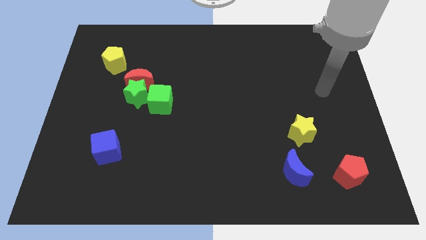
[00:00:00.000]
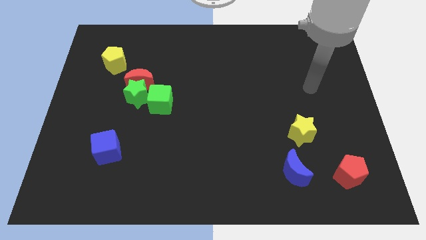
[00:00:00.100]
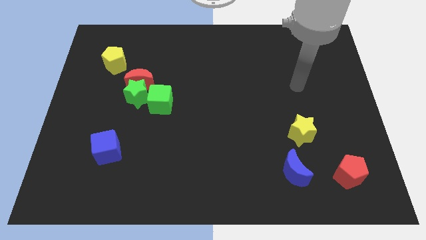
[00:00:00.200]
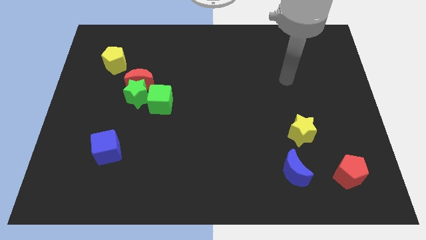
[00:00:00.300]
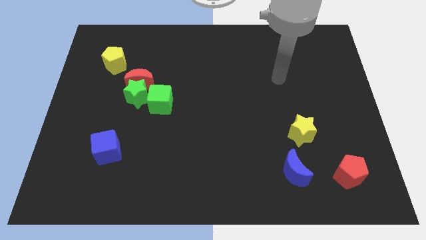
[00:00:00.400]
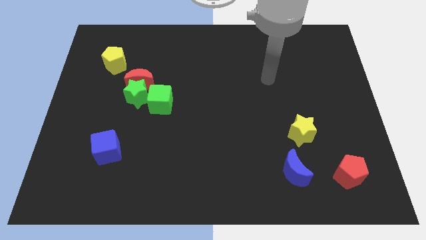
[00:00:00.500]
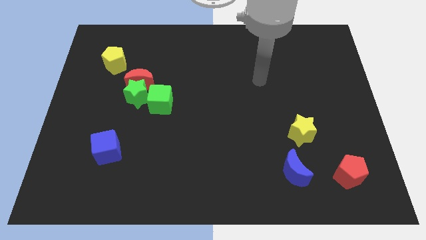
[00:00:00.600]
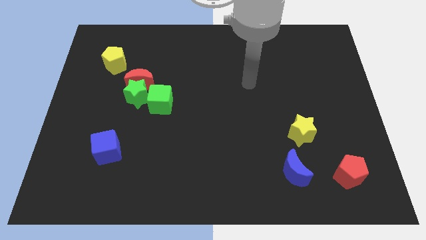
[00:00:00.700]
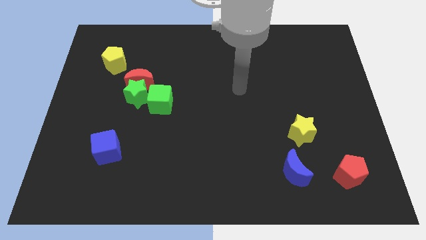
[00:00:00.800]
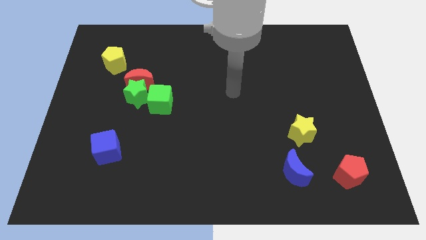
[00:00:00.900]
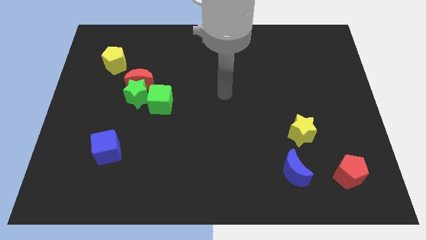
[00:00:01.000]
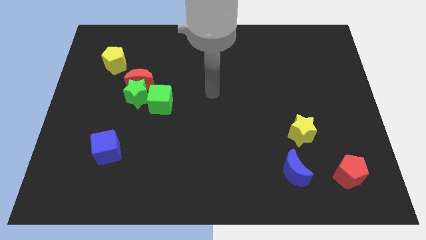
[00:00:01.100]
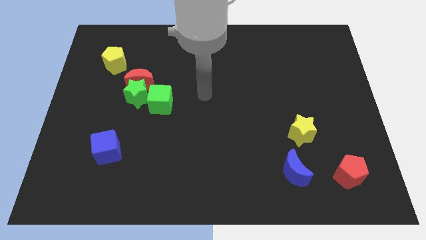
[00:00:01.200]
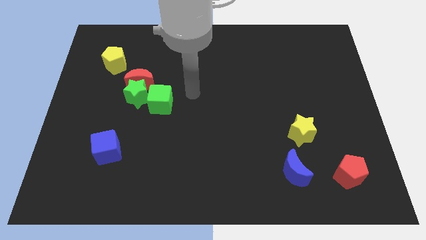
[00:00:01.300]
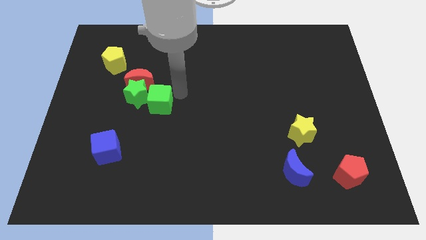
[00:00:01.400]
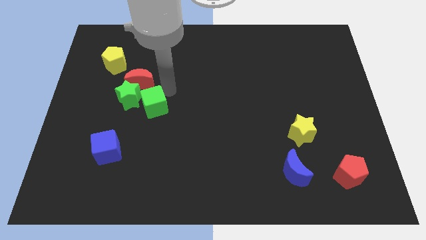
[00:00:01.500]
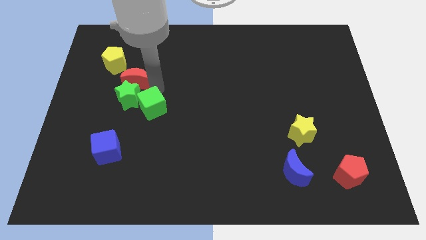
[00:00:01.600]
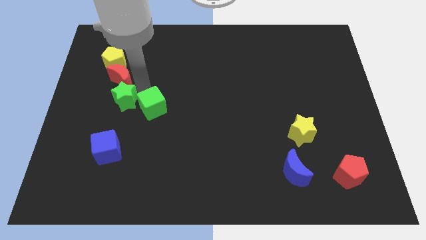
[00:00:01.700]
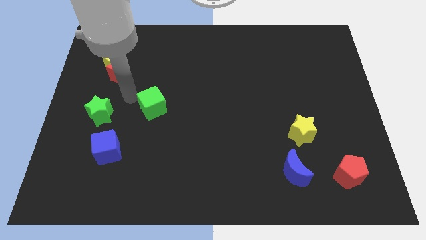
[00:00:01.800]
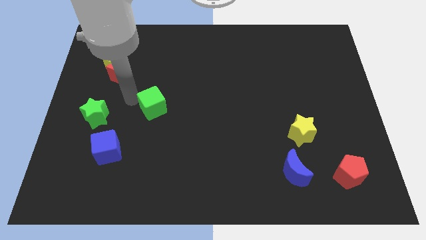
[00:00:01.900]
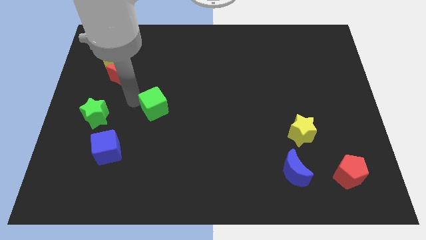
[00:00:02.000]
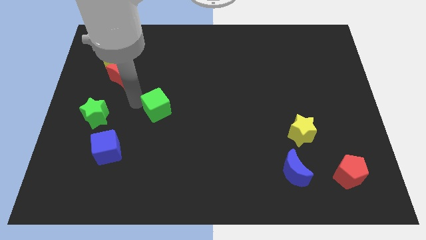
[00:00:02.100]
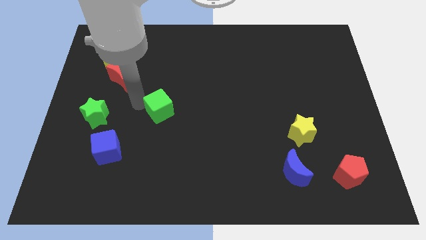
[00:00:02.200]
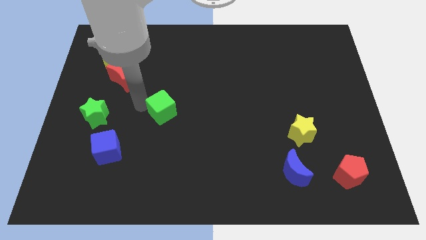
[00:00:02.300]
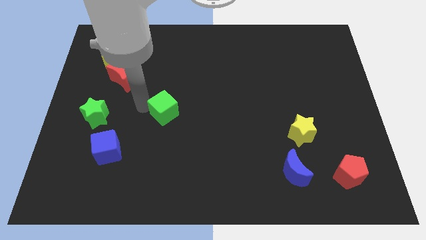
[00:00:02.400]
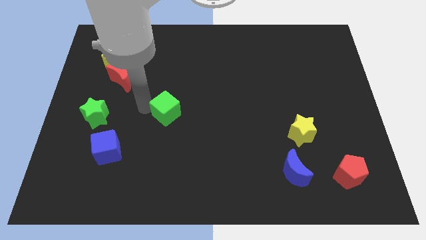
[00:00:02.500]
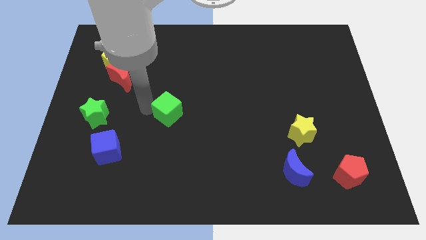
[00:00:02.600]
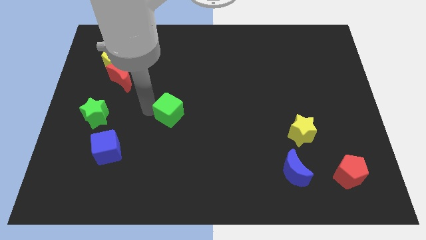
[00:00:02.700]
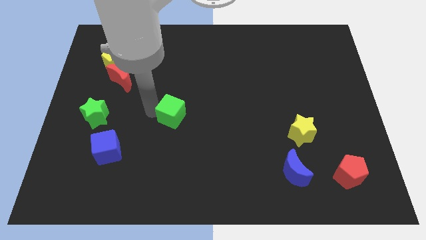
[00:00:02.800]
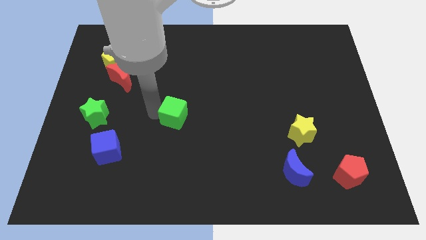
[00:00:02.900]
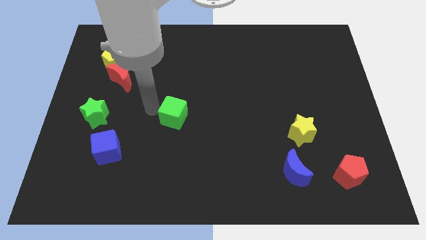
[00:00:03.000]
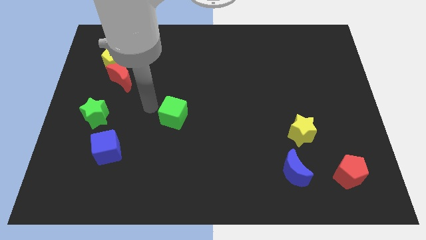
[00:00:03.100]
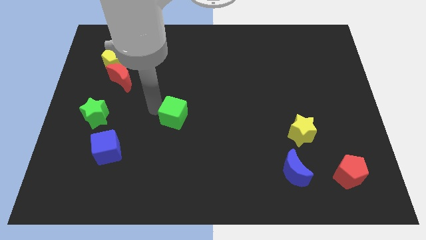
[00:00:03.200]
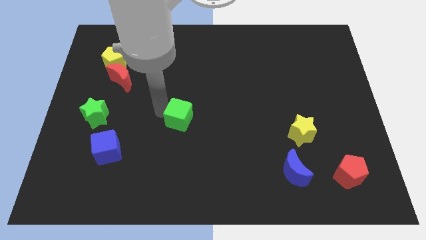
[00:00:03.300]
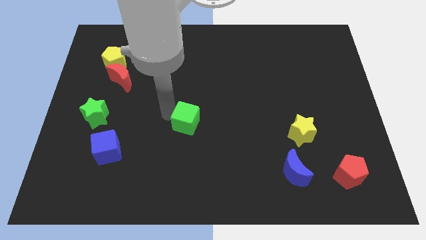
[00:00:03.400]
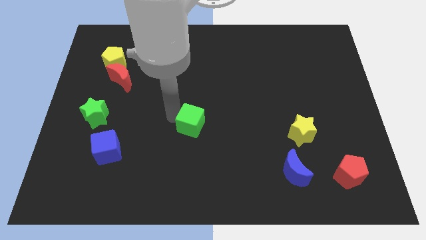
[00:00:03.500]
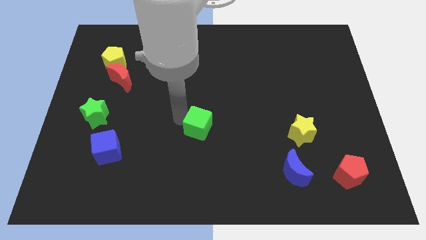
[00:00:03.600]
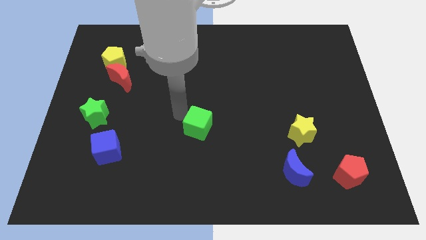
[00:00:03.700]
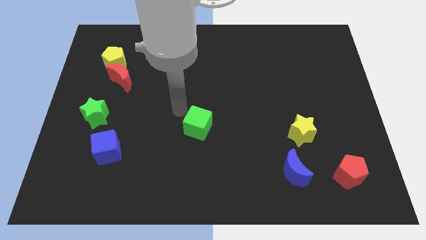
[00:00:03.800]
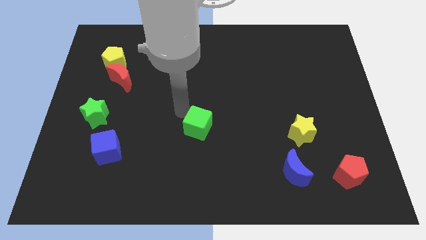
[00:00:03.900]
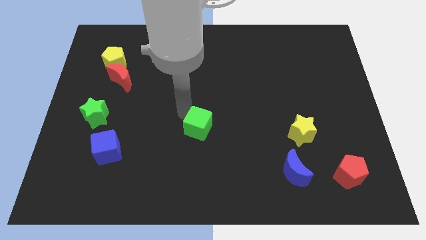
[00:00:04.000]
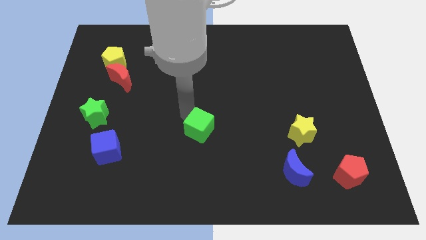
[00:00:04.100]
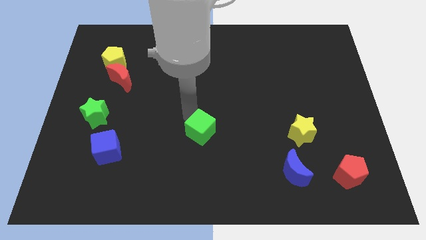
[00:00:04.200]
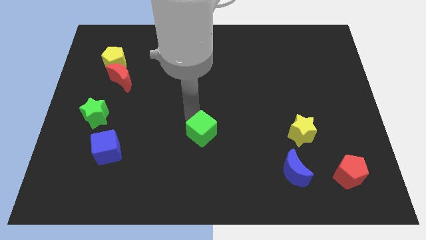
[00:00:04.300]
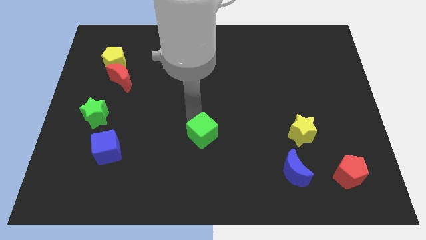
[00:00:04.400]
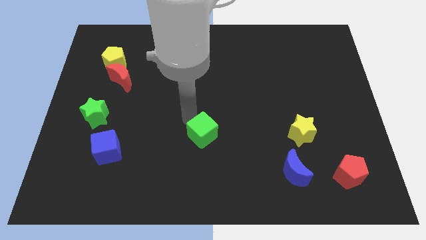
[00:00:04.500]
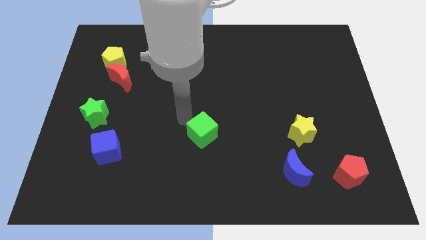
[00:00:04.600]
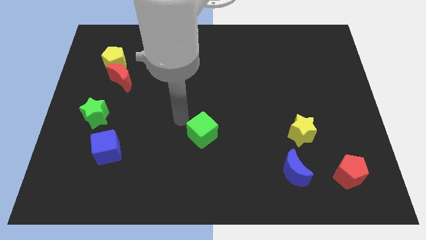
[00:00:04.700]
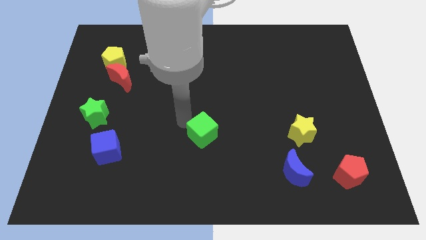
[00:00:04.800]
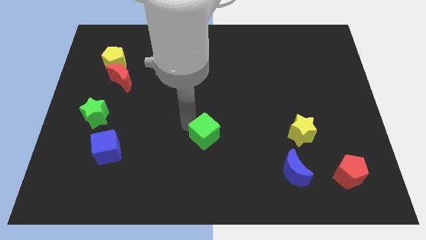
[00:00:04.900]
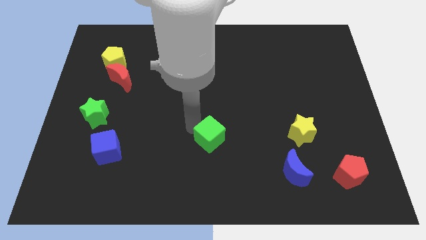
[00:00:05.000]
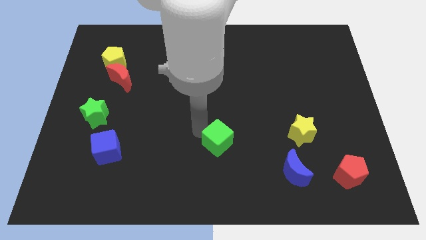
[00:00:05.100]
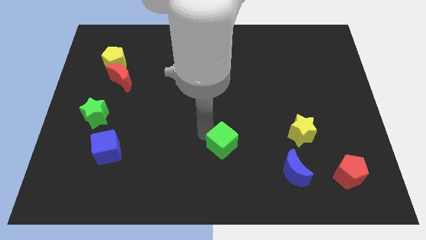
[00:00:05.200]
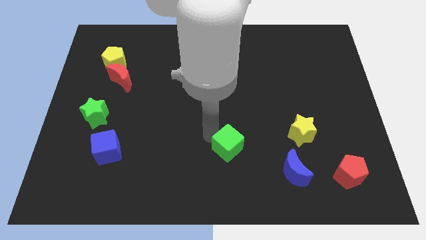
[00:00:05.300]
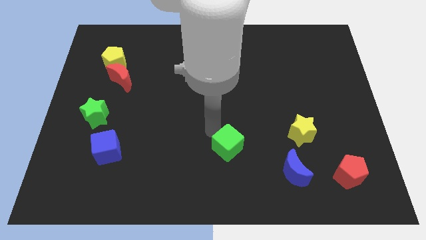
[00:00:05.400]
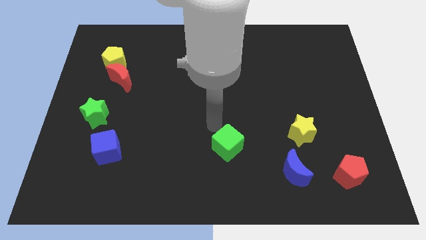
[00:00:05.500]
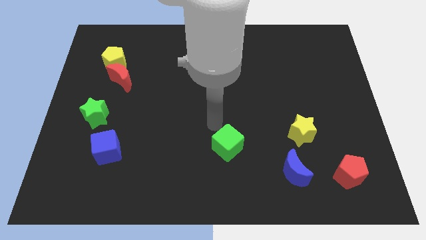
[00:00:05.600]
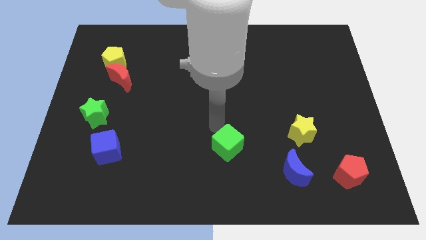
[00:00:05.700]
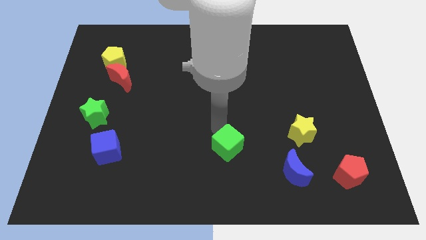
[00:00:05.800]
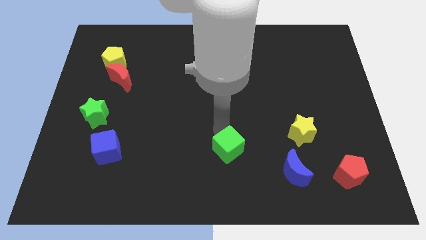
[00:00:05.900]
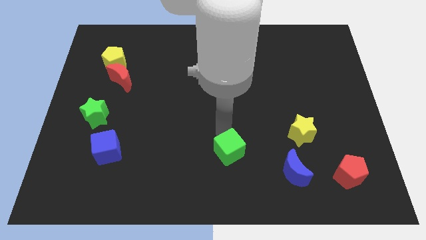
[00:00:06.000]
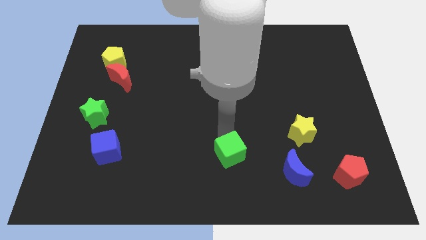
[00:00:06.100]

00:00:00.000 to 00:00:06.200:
move the green cube to the left side of the blue moon

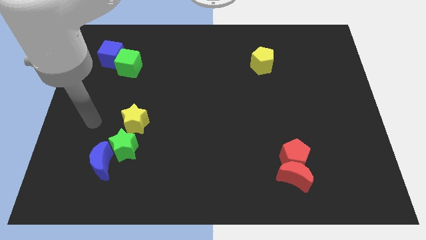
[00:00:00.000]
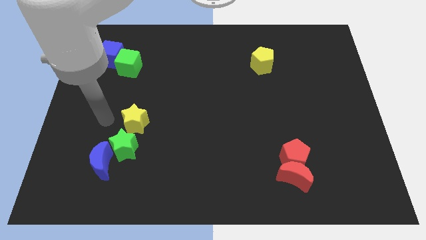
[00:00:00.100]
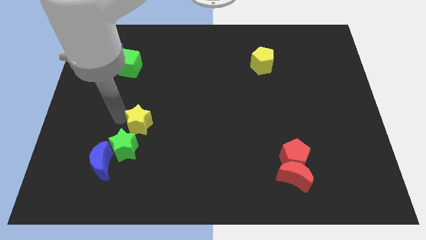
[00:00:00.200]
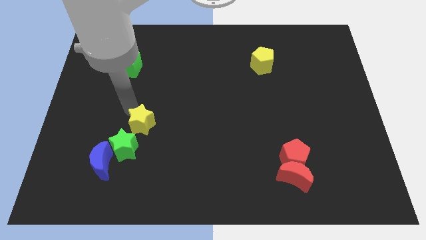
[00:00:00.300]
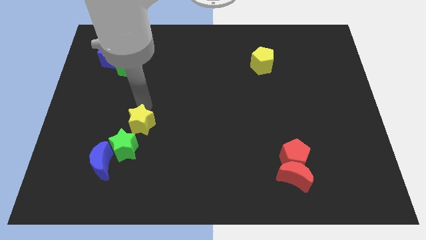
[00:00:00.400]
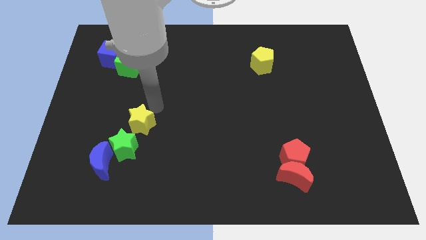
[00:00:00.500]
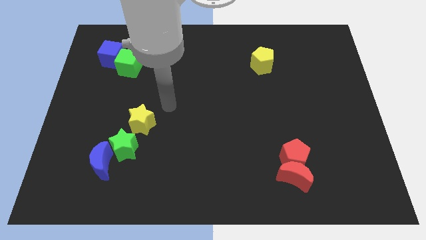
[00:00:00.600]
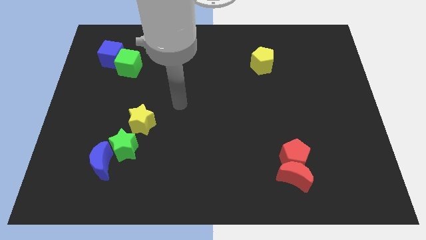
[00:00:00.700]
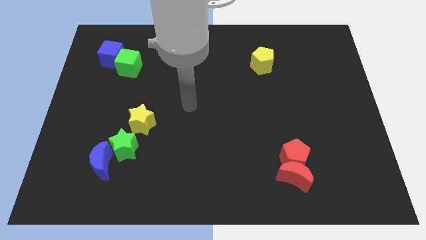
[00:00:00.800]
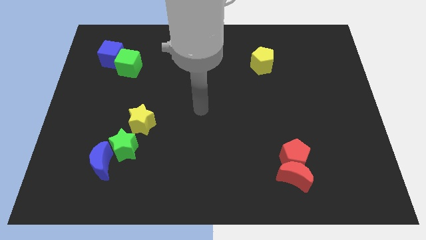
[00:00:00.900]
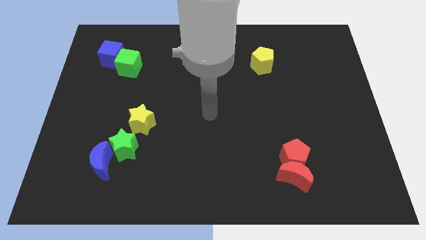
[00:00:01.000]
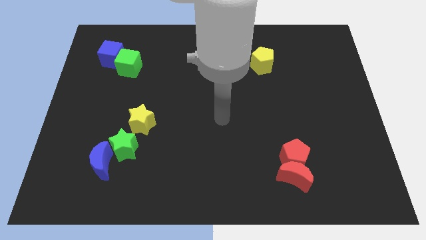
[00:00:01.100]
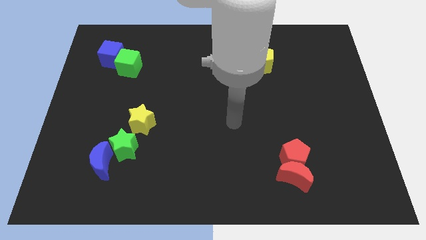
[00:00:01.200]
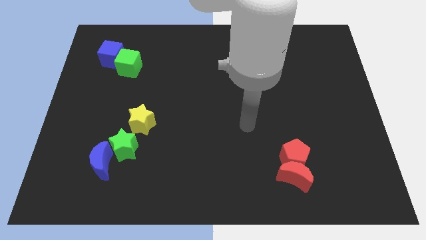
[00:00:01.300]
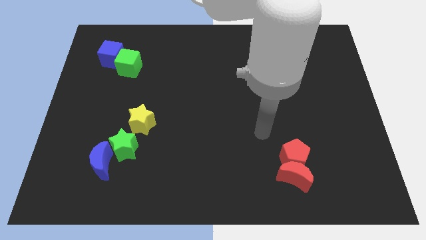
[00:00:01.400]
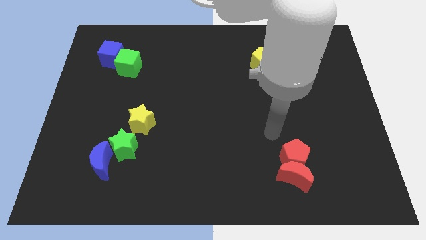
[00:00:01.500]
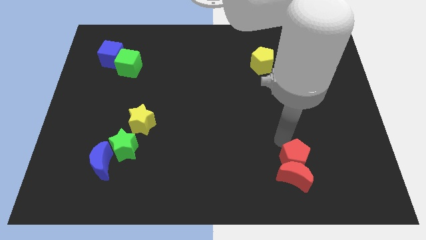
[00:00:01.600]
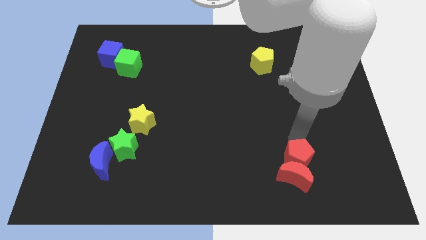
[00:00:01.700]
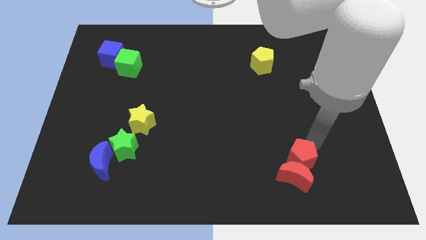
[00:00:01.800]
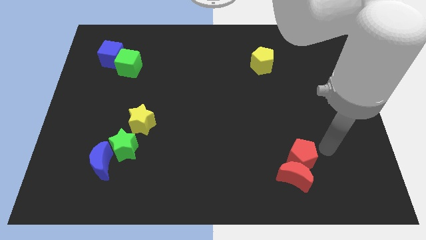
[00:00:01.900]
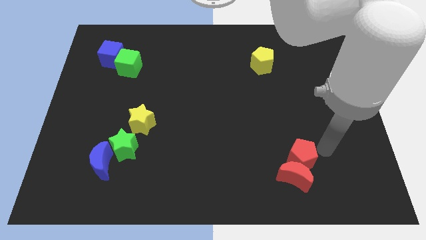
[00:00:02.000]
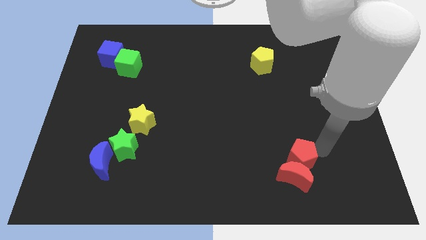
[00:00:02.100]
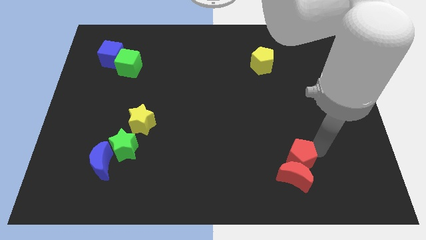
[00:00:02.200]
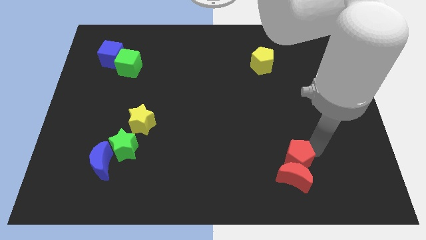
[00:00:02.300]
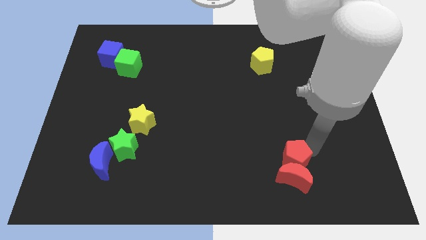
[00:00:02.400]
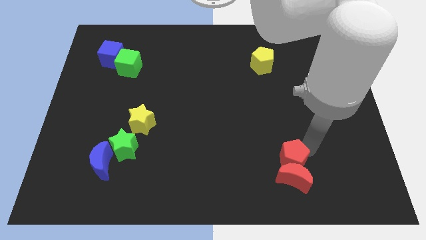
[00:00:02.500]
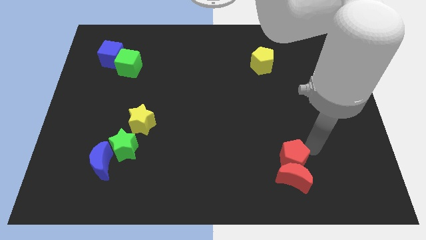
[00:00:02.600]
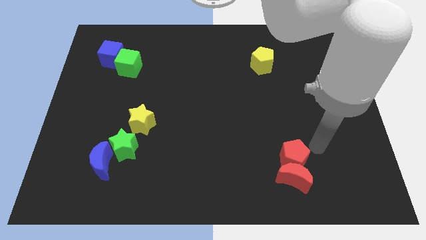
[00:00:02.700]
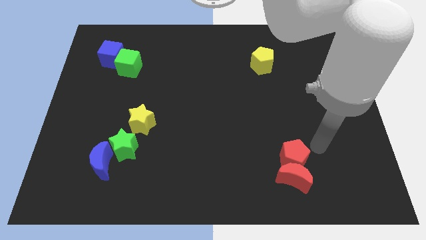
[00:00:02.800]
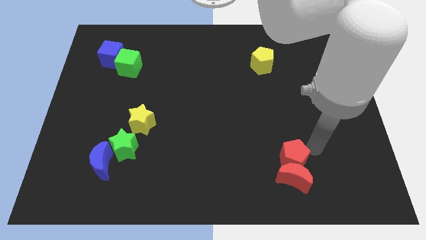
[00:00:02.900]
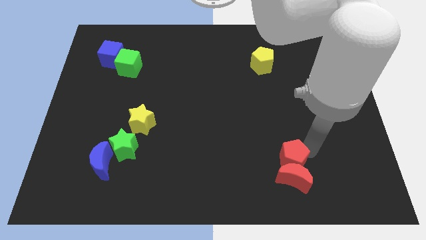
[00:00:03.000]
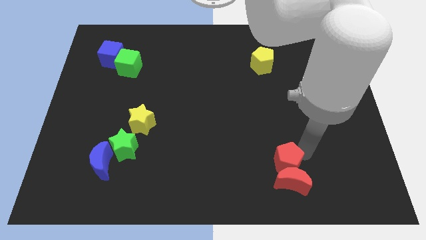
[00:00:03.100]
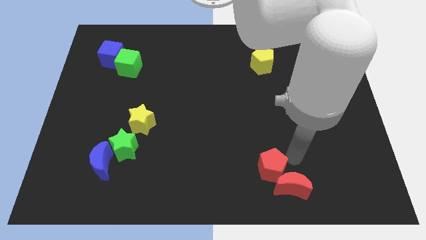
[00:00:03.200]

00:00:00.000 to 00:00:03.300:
put the red pentagon left of the red moon
